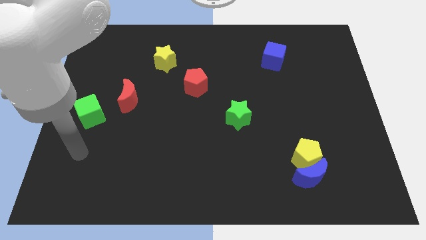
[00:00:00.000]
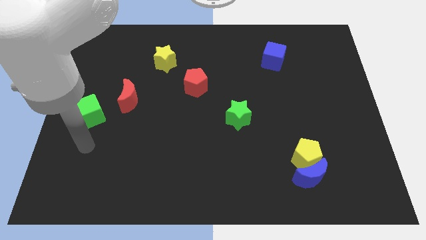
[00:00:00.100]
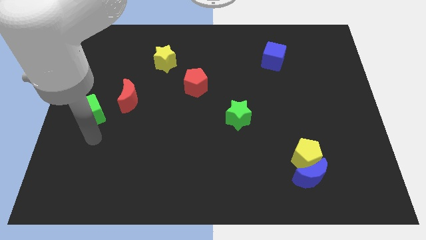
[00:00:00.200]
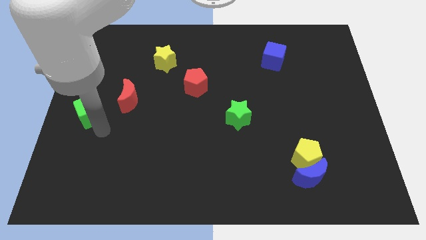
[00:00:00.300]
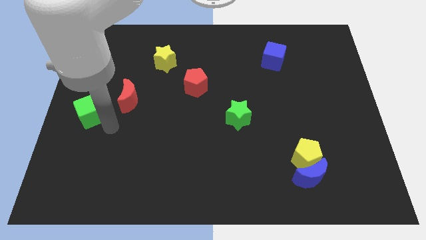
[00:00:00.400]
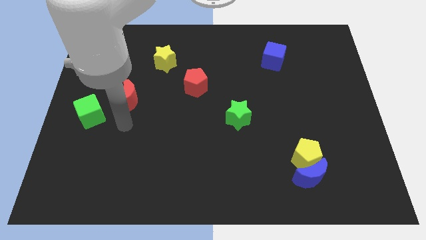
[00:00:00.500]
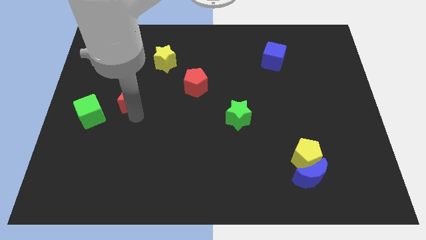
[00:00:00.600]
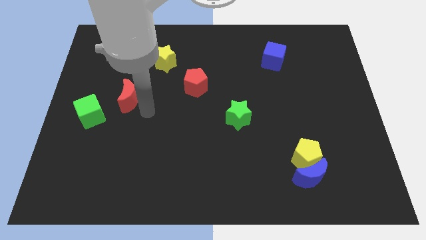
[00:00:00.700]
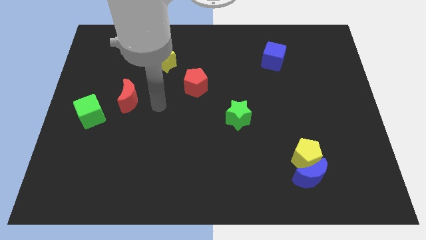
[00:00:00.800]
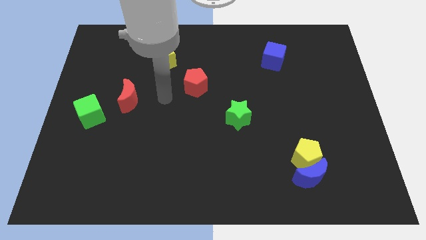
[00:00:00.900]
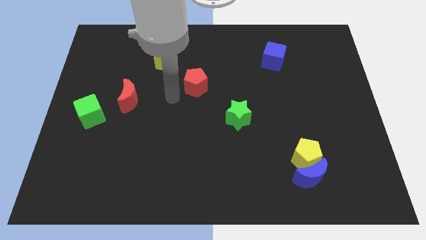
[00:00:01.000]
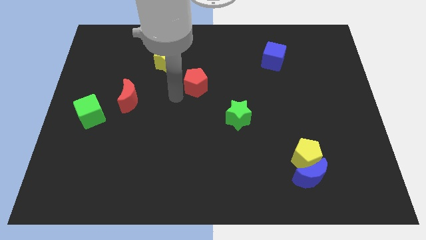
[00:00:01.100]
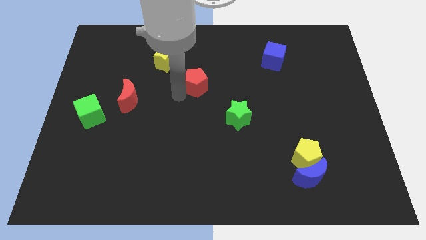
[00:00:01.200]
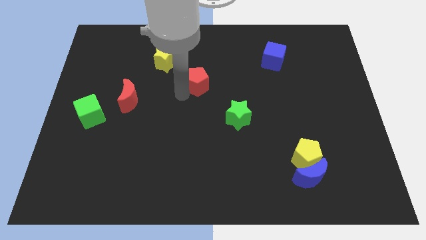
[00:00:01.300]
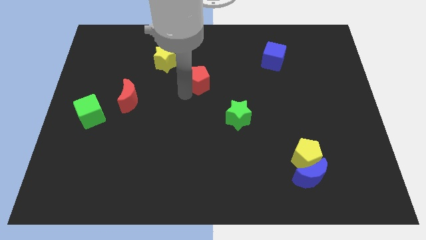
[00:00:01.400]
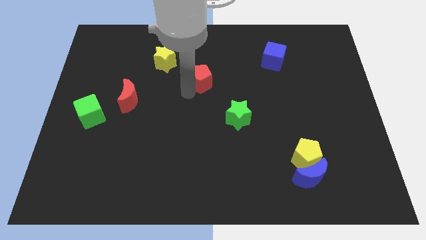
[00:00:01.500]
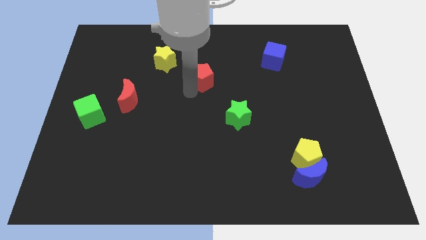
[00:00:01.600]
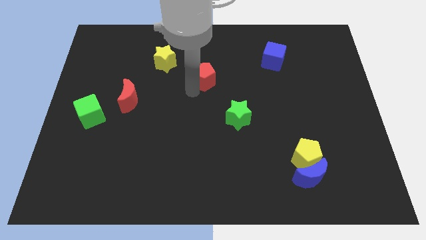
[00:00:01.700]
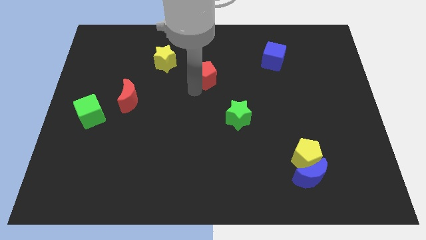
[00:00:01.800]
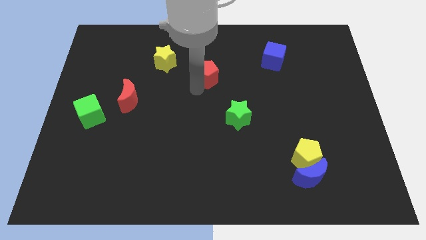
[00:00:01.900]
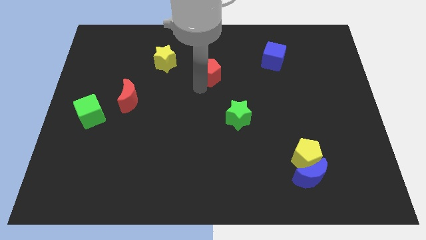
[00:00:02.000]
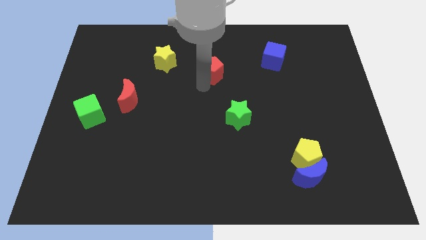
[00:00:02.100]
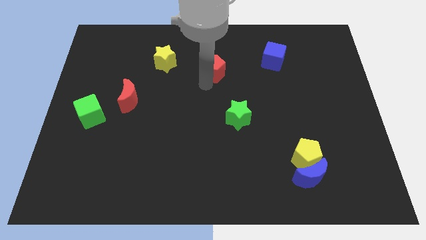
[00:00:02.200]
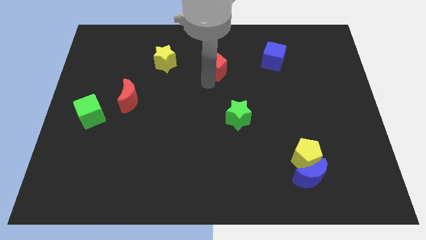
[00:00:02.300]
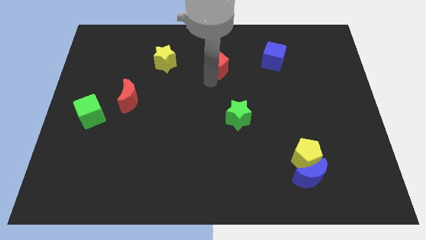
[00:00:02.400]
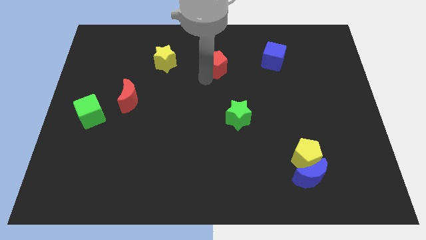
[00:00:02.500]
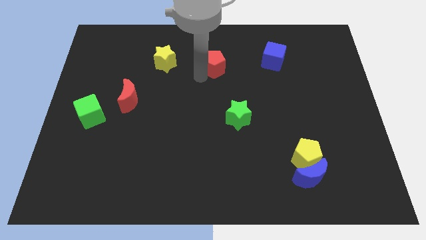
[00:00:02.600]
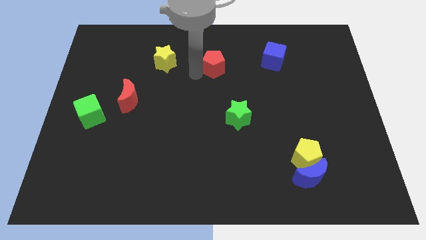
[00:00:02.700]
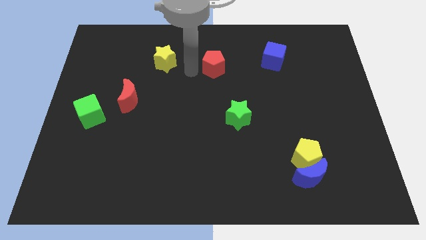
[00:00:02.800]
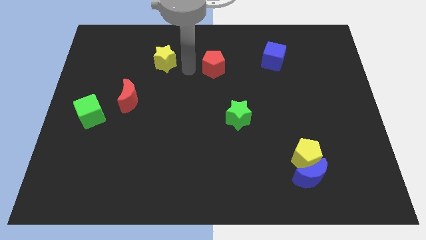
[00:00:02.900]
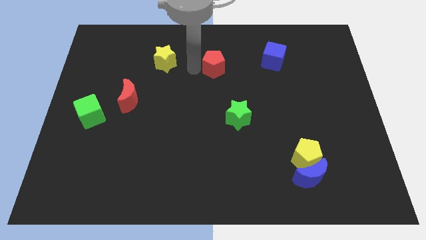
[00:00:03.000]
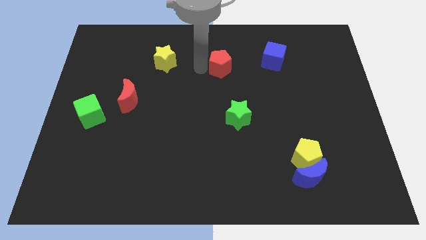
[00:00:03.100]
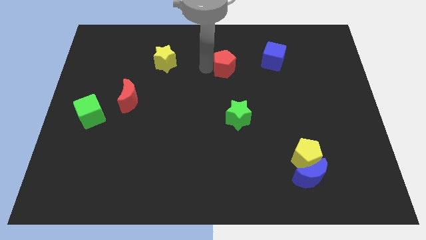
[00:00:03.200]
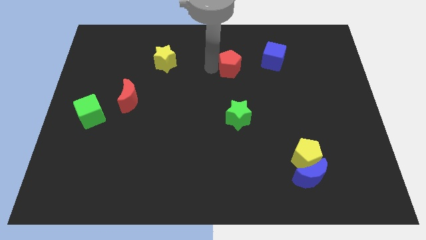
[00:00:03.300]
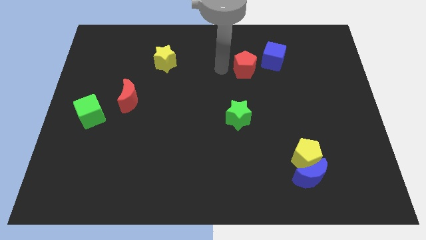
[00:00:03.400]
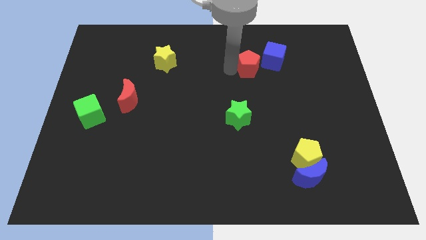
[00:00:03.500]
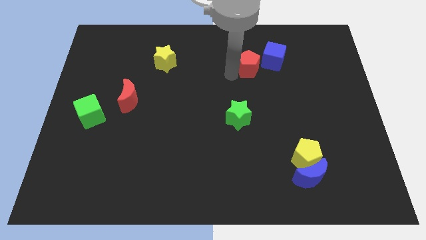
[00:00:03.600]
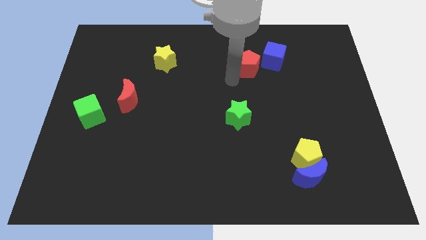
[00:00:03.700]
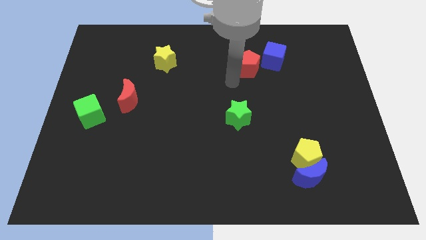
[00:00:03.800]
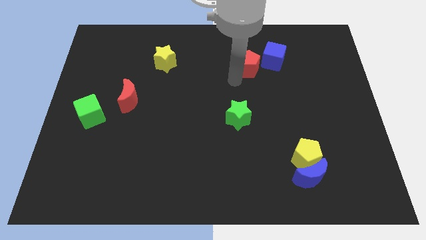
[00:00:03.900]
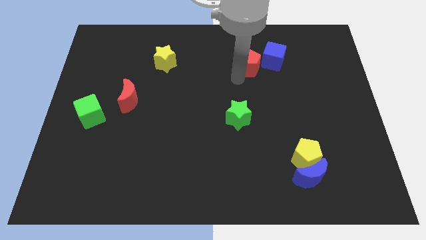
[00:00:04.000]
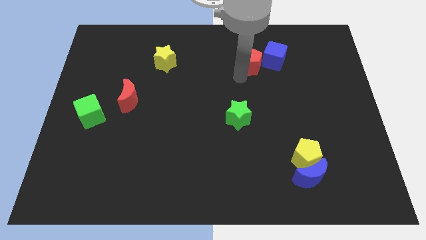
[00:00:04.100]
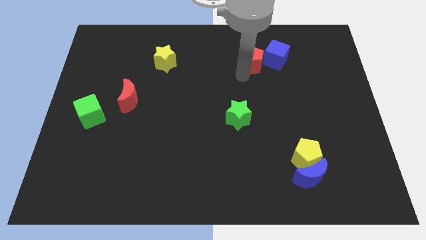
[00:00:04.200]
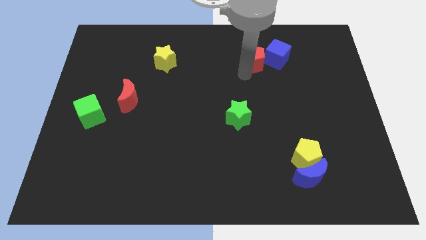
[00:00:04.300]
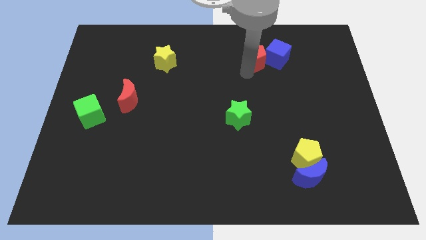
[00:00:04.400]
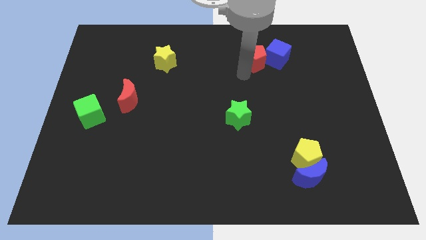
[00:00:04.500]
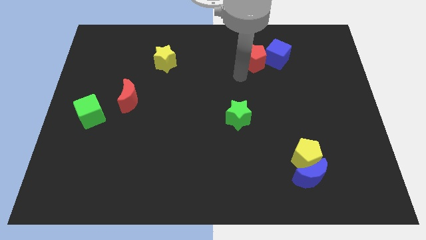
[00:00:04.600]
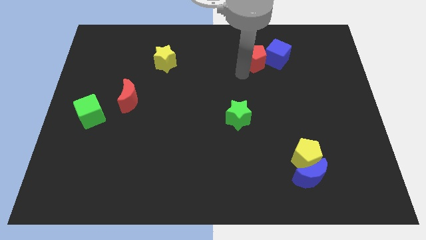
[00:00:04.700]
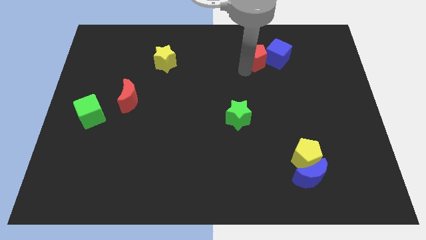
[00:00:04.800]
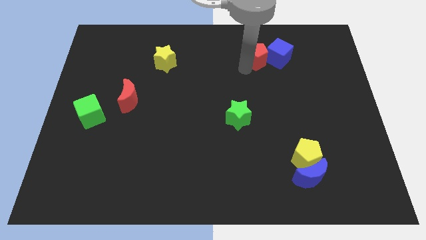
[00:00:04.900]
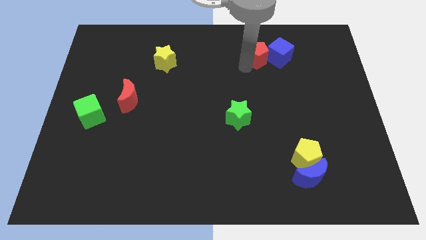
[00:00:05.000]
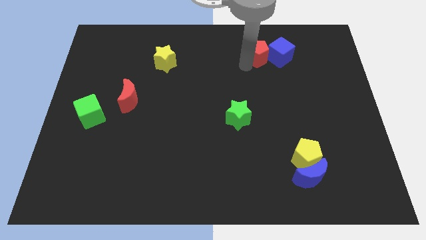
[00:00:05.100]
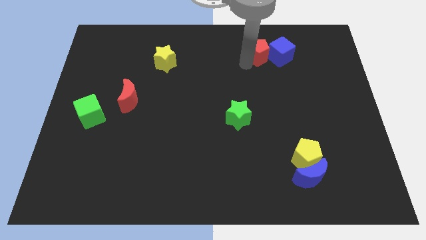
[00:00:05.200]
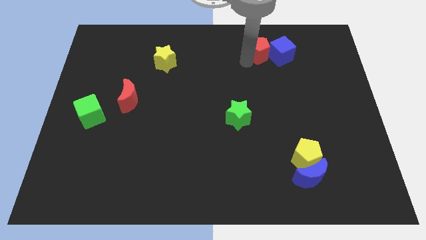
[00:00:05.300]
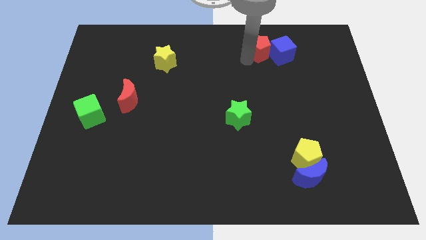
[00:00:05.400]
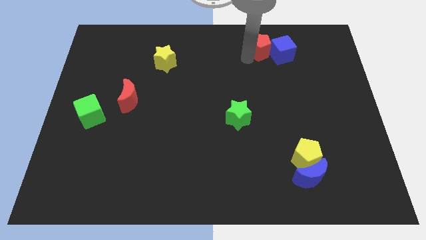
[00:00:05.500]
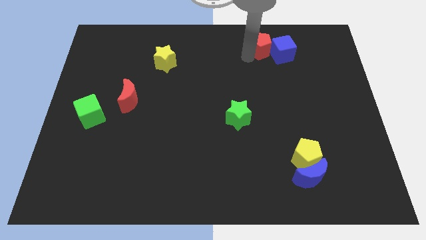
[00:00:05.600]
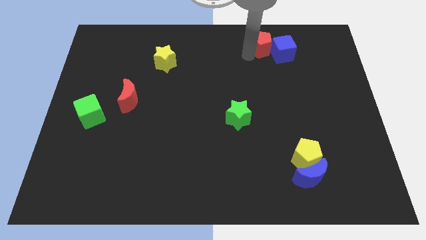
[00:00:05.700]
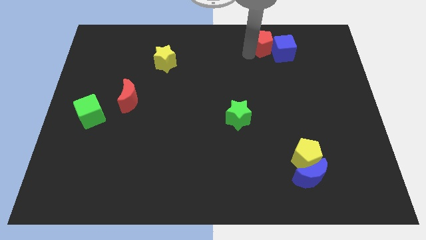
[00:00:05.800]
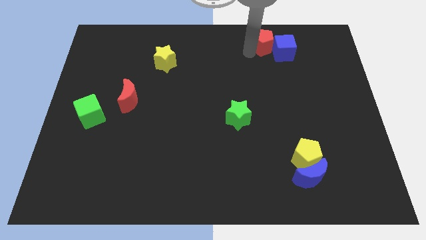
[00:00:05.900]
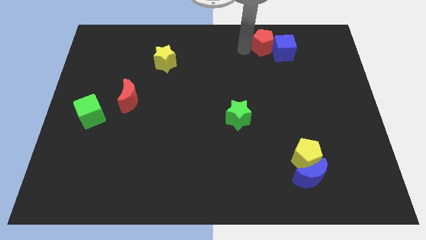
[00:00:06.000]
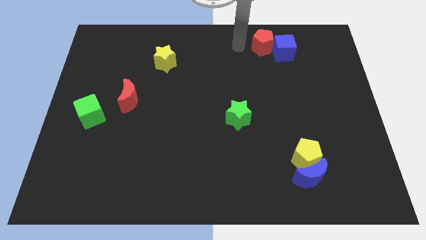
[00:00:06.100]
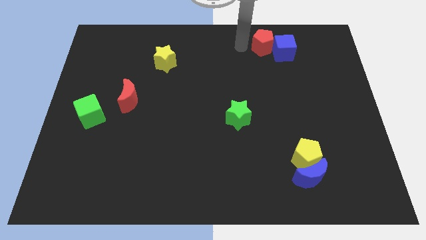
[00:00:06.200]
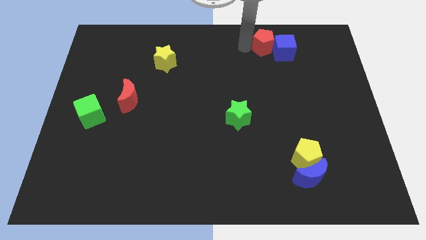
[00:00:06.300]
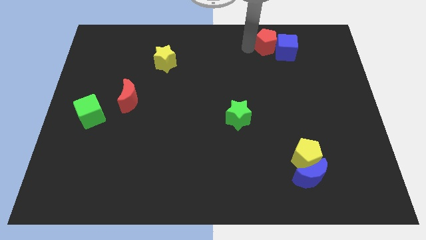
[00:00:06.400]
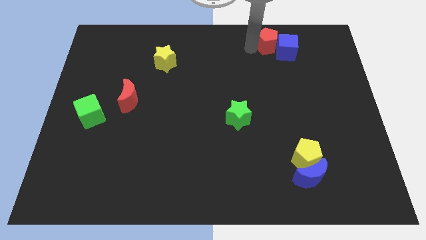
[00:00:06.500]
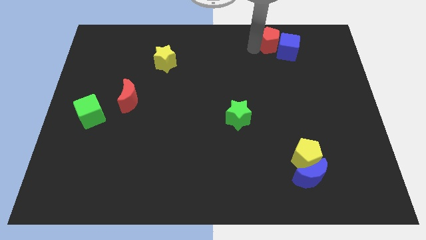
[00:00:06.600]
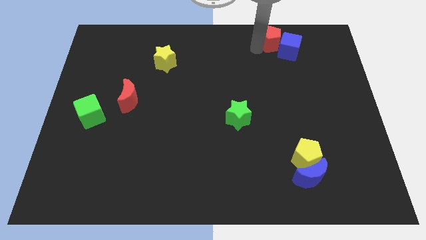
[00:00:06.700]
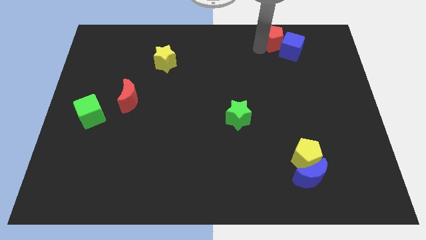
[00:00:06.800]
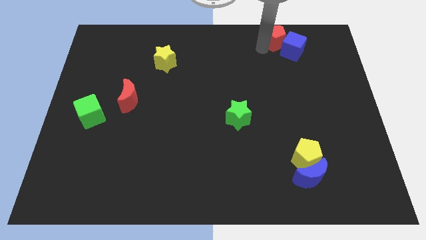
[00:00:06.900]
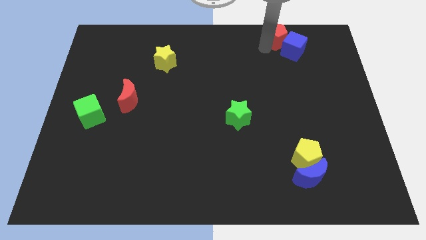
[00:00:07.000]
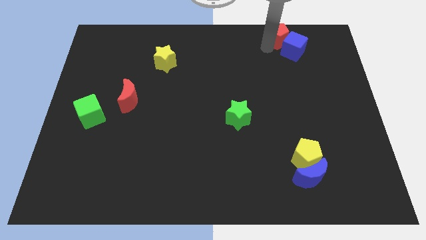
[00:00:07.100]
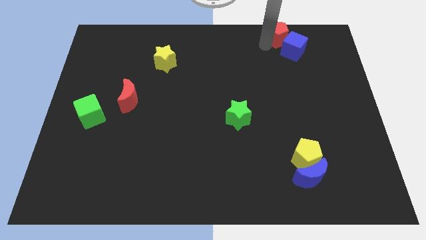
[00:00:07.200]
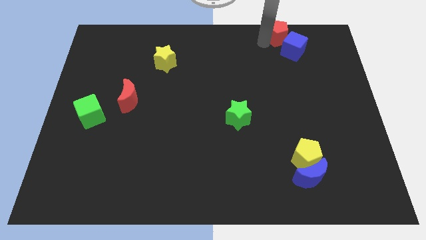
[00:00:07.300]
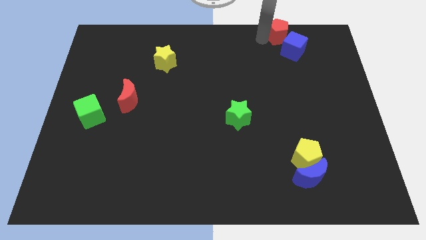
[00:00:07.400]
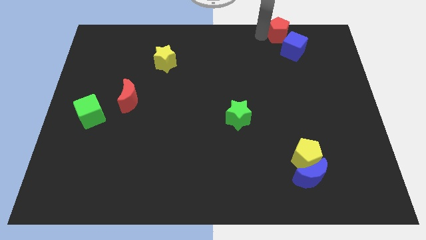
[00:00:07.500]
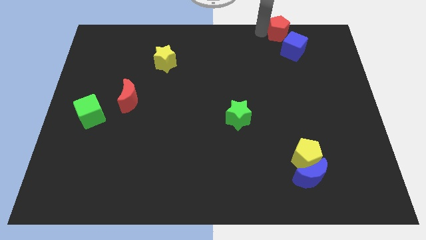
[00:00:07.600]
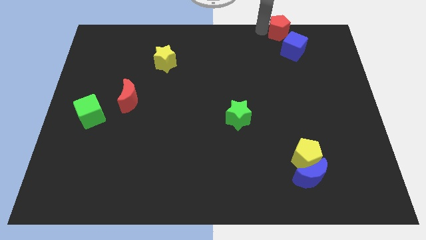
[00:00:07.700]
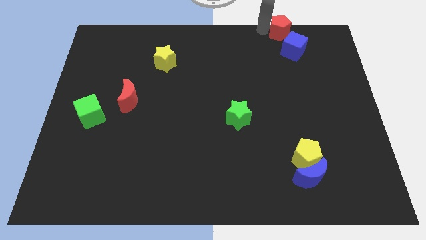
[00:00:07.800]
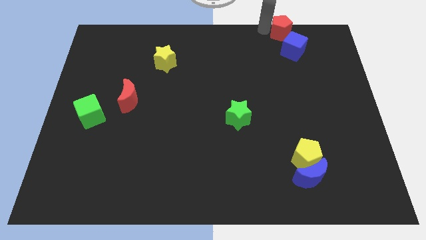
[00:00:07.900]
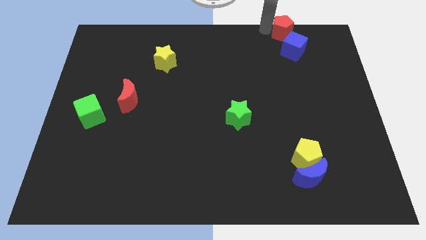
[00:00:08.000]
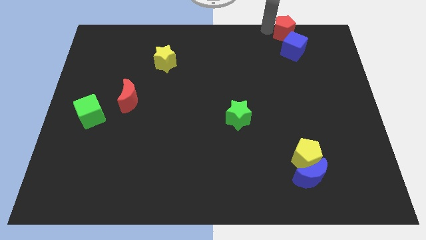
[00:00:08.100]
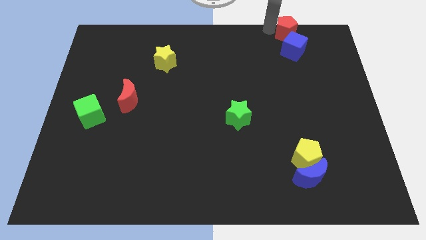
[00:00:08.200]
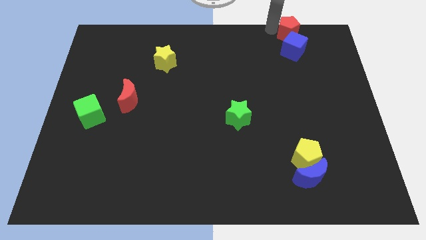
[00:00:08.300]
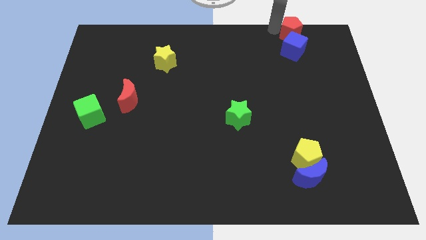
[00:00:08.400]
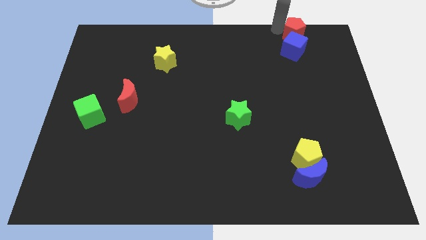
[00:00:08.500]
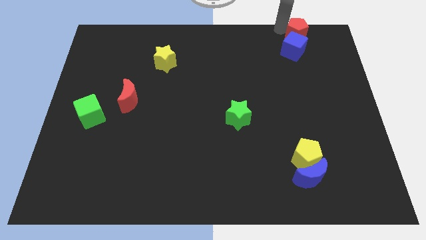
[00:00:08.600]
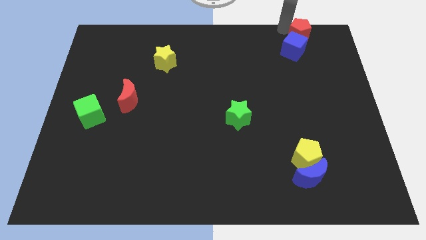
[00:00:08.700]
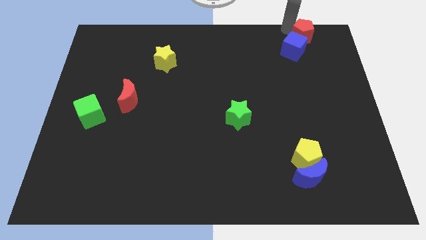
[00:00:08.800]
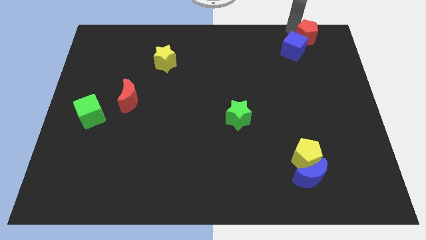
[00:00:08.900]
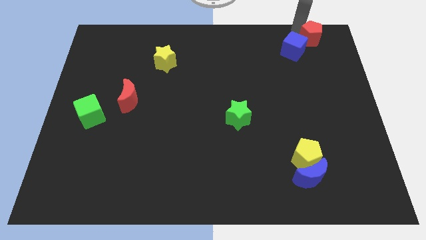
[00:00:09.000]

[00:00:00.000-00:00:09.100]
put the red pentagon to the top right corner
